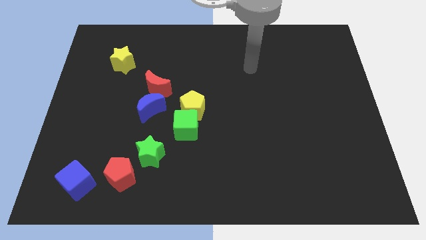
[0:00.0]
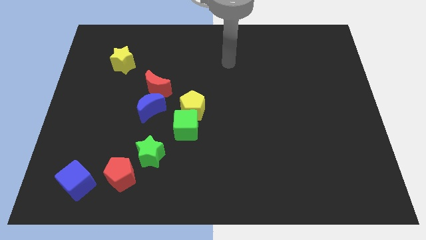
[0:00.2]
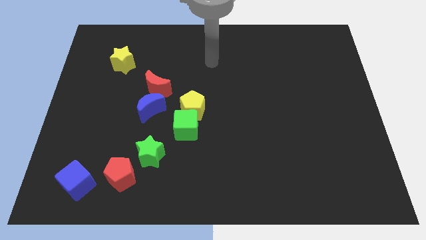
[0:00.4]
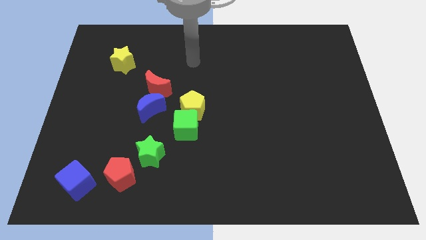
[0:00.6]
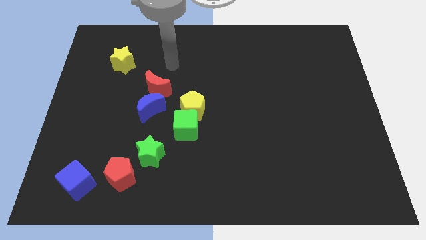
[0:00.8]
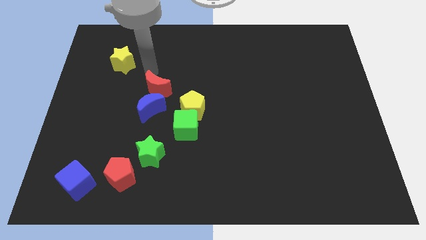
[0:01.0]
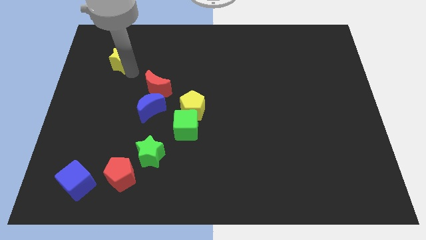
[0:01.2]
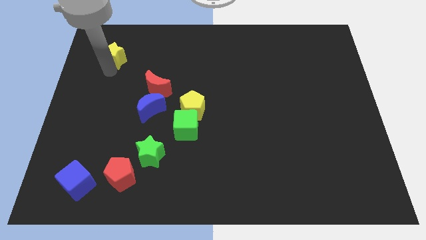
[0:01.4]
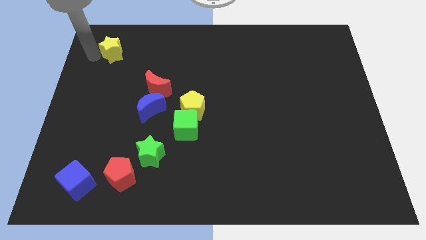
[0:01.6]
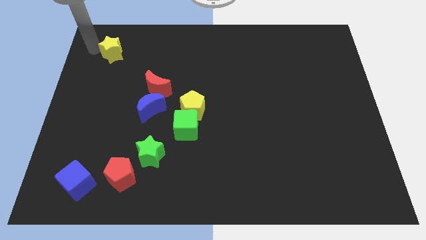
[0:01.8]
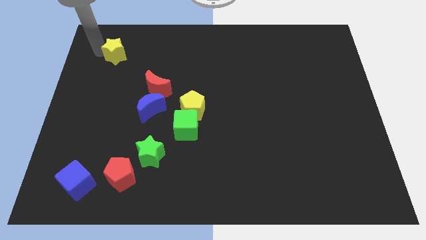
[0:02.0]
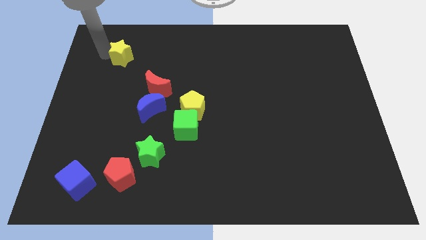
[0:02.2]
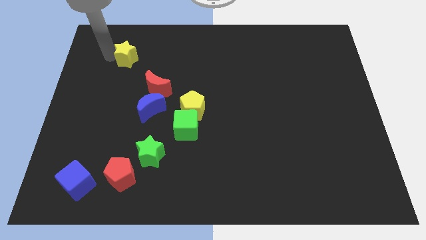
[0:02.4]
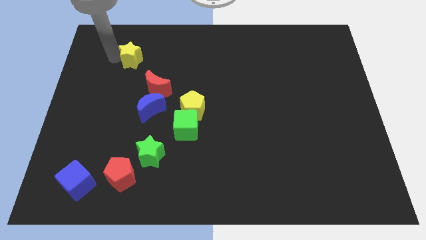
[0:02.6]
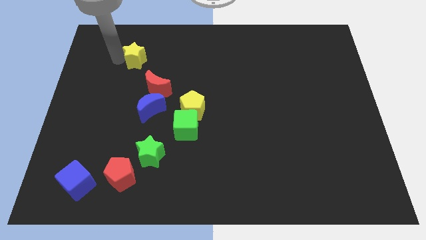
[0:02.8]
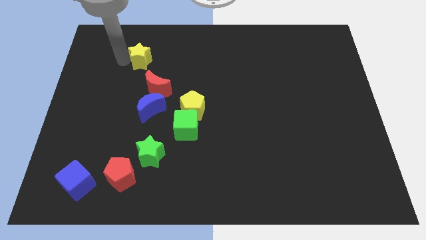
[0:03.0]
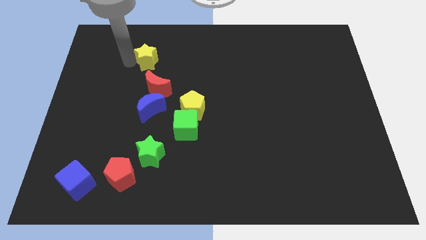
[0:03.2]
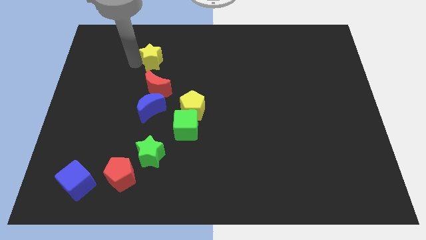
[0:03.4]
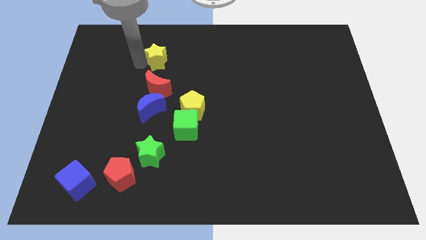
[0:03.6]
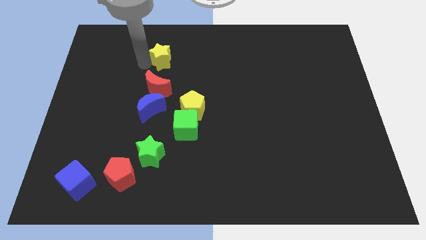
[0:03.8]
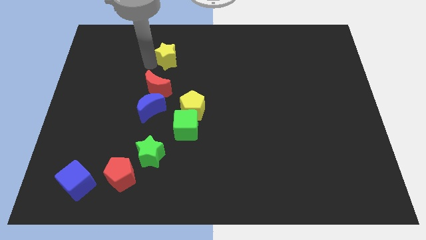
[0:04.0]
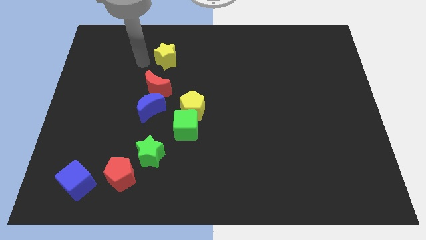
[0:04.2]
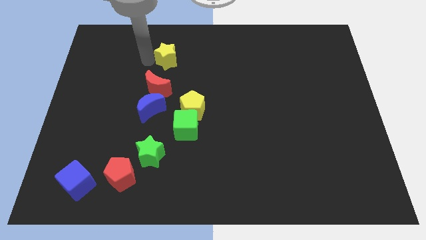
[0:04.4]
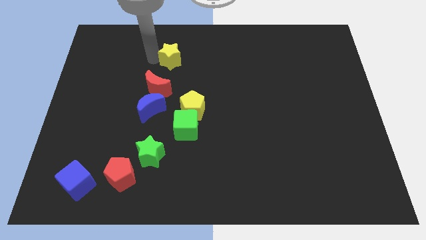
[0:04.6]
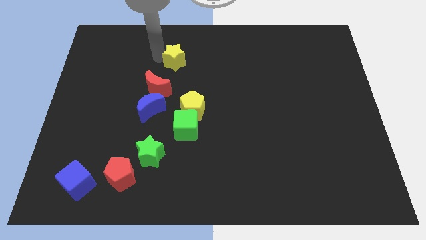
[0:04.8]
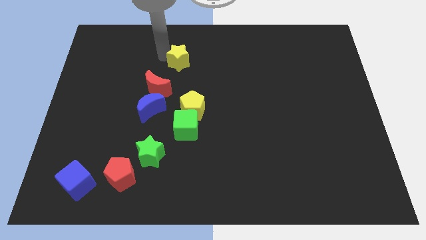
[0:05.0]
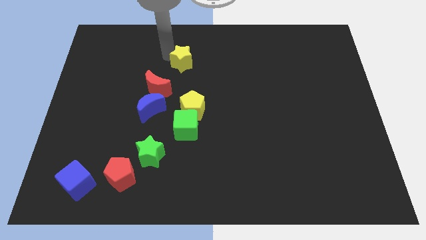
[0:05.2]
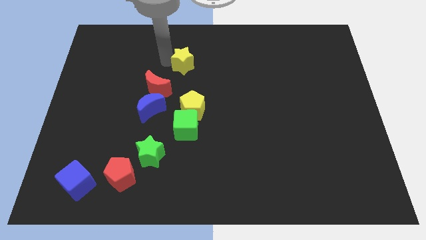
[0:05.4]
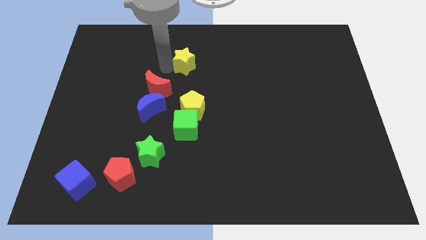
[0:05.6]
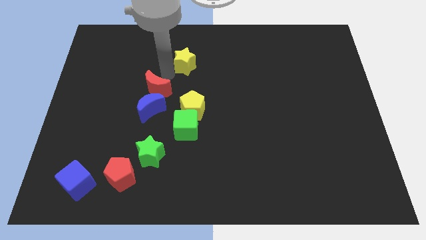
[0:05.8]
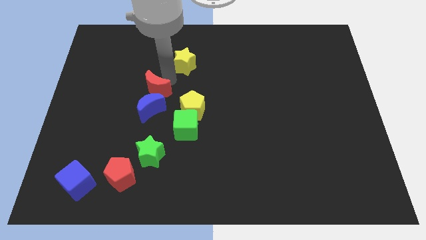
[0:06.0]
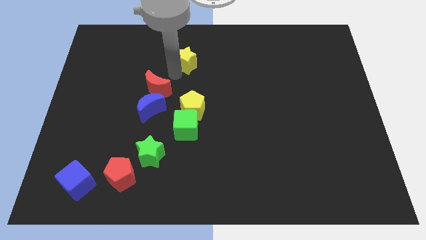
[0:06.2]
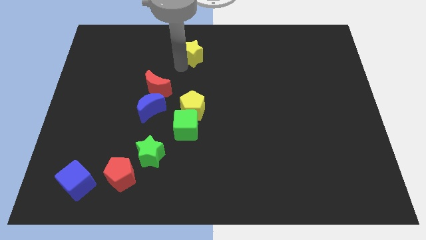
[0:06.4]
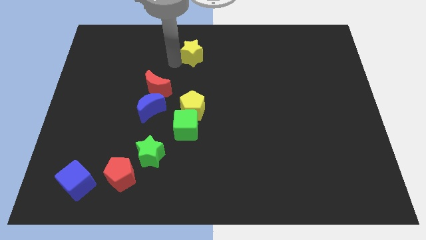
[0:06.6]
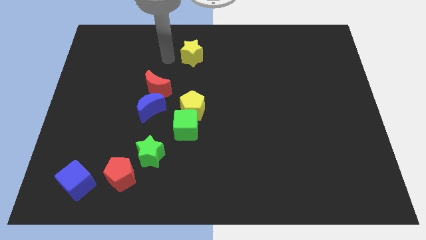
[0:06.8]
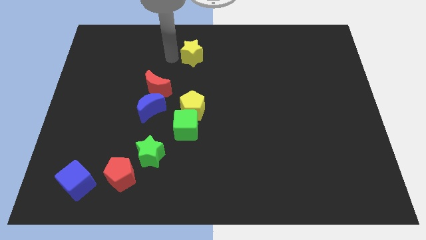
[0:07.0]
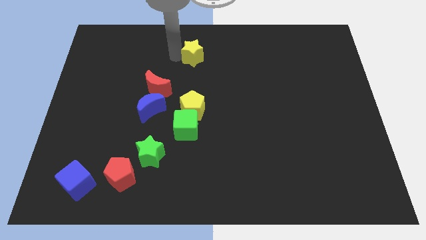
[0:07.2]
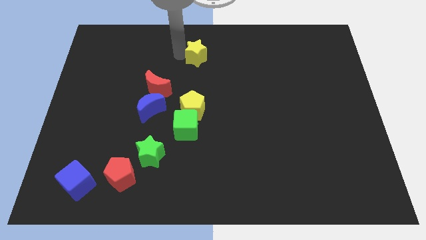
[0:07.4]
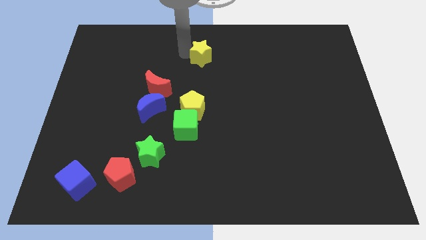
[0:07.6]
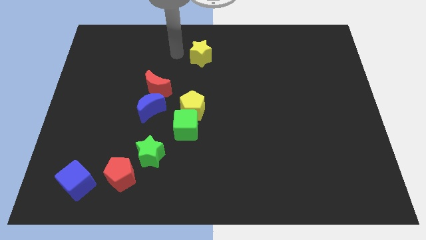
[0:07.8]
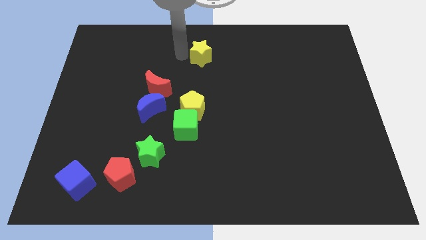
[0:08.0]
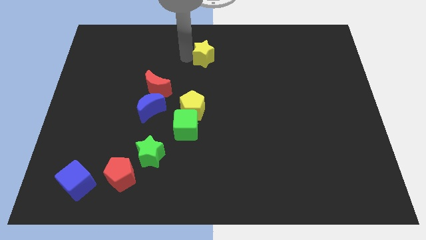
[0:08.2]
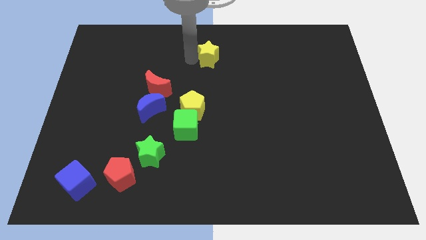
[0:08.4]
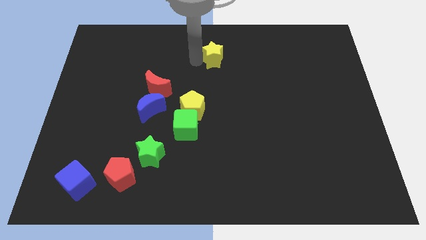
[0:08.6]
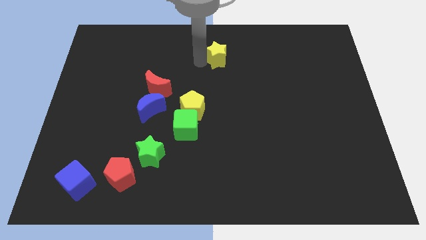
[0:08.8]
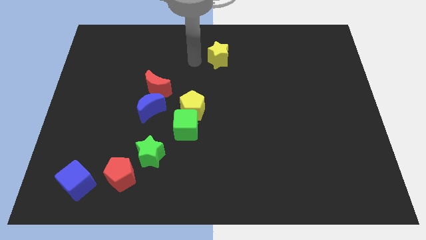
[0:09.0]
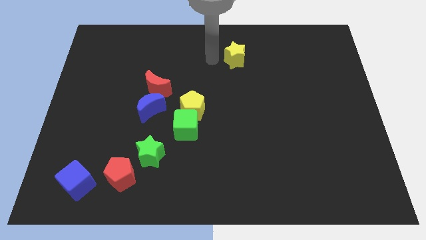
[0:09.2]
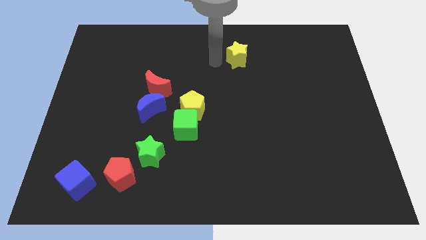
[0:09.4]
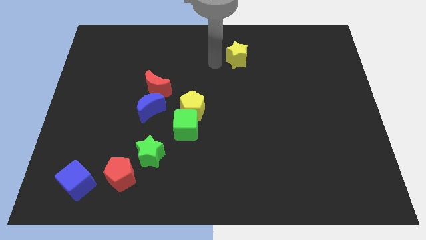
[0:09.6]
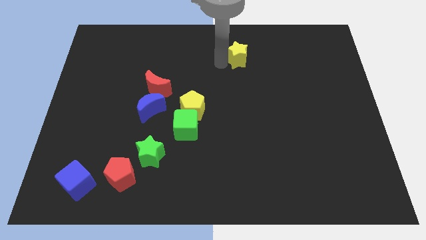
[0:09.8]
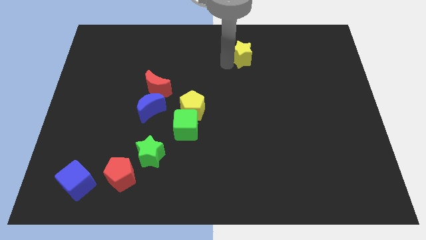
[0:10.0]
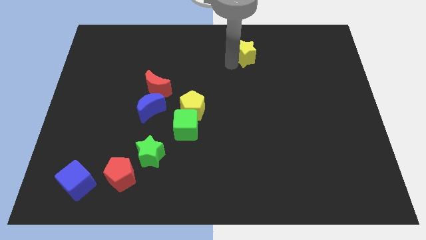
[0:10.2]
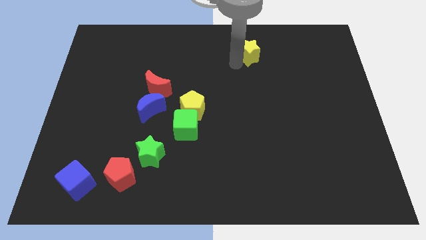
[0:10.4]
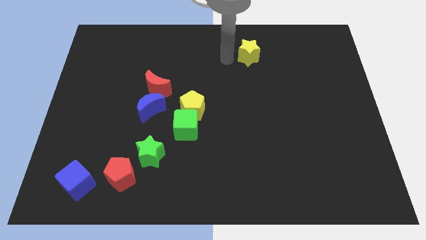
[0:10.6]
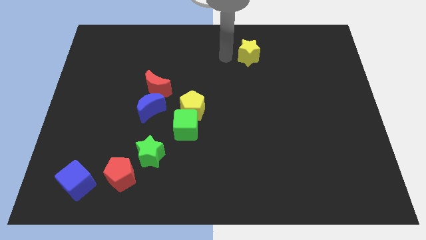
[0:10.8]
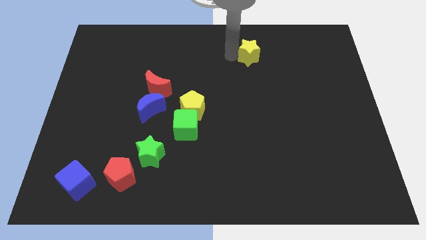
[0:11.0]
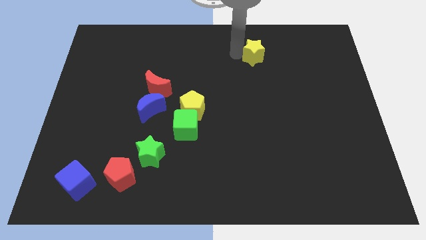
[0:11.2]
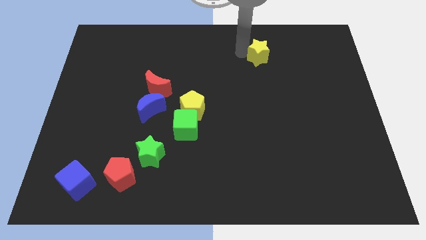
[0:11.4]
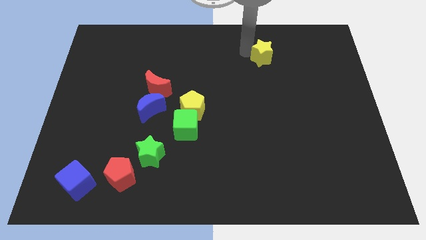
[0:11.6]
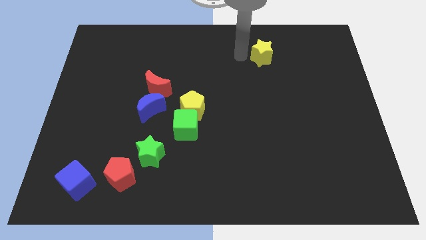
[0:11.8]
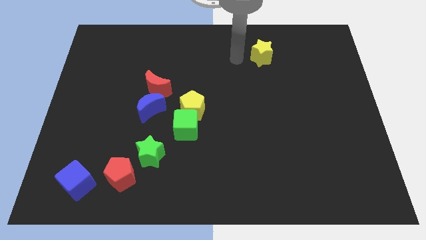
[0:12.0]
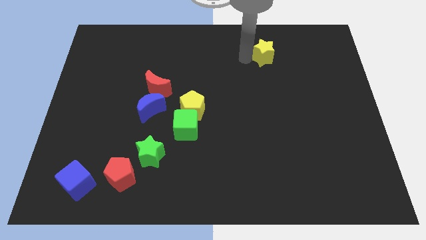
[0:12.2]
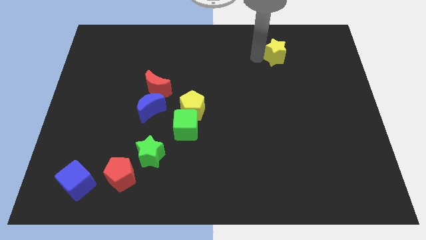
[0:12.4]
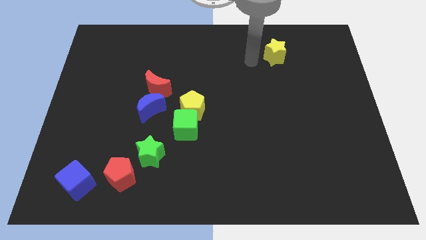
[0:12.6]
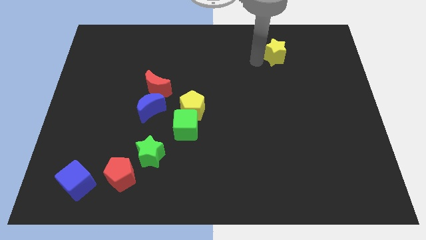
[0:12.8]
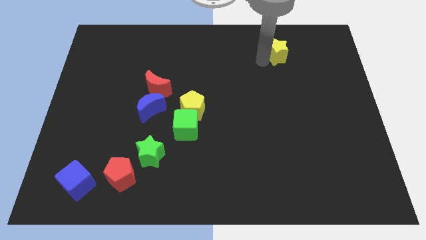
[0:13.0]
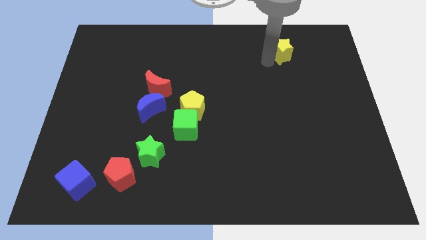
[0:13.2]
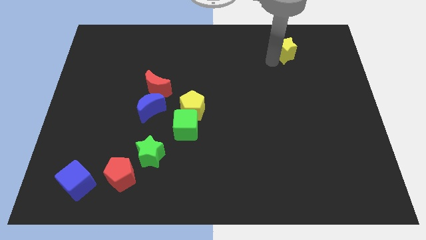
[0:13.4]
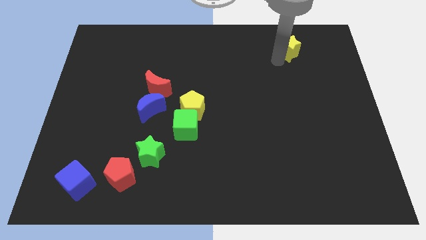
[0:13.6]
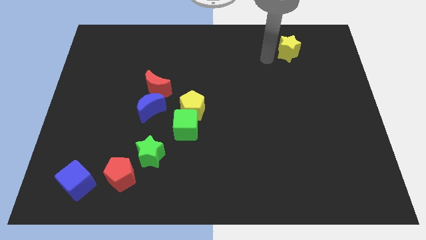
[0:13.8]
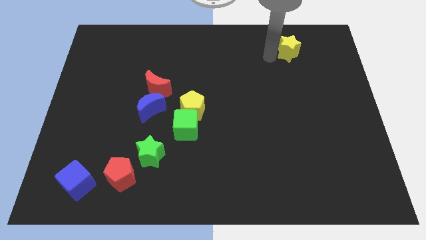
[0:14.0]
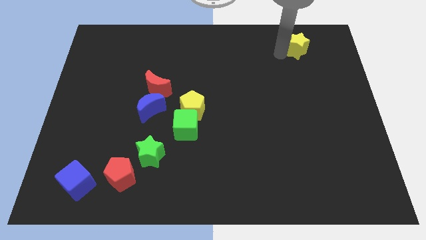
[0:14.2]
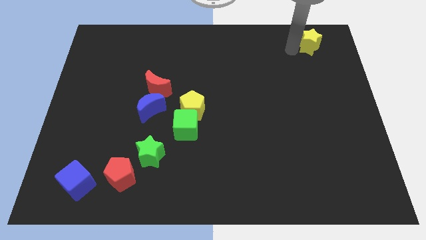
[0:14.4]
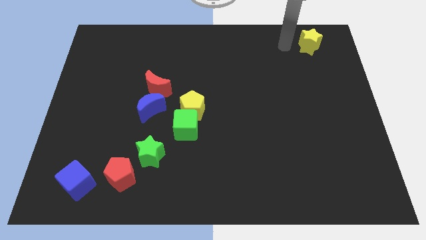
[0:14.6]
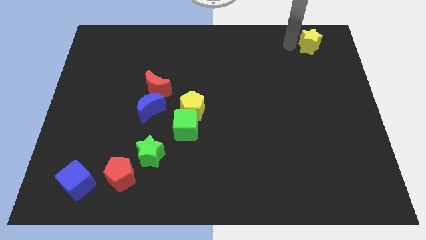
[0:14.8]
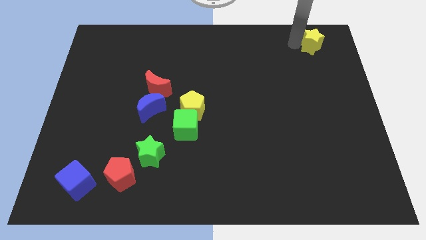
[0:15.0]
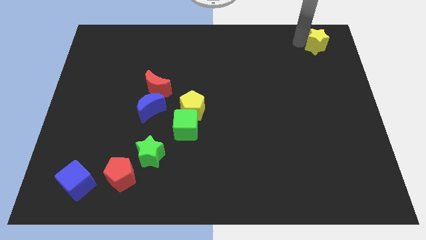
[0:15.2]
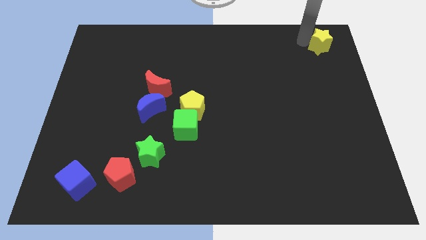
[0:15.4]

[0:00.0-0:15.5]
put the yellow star to the top right corner
